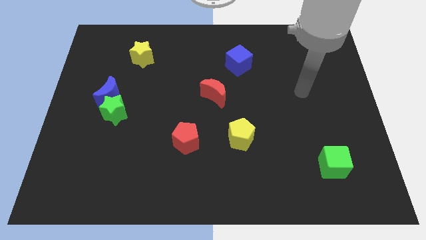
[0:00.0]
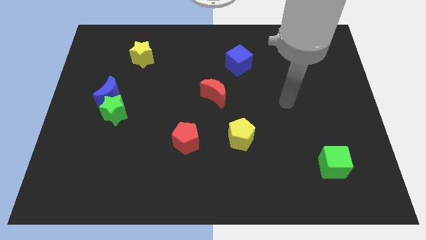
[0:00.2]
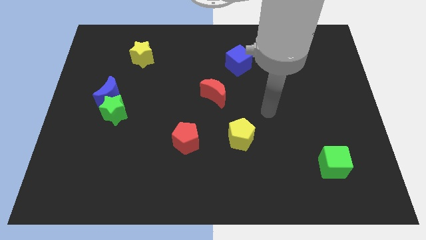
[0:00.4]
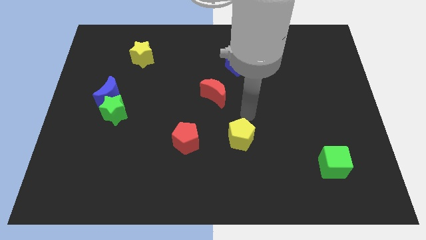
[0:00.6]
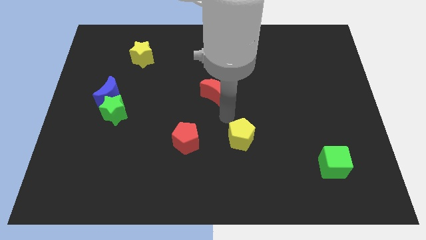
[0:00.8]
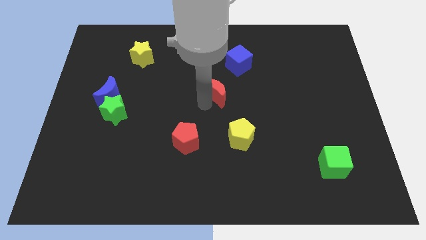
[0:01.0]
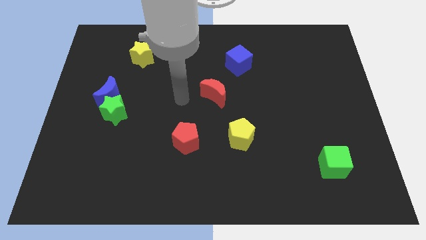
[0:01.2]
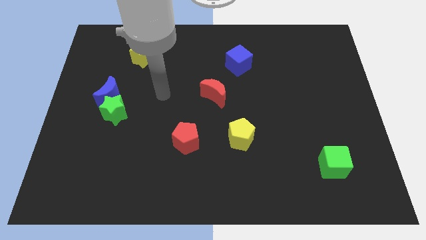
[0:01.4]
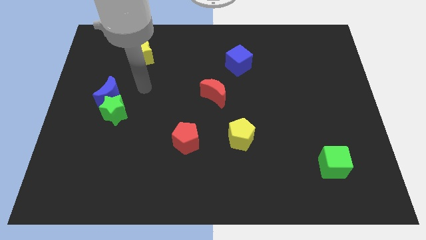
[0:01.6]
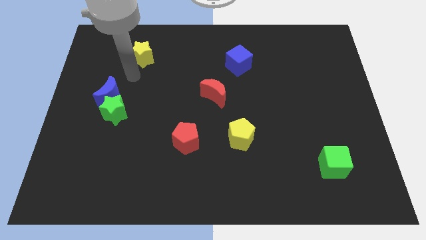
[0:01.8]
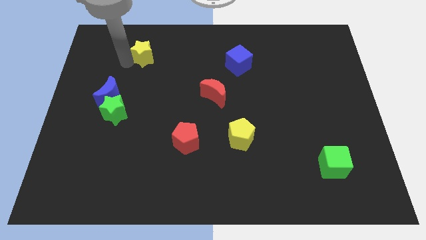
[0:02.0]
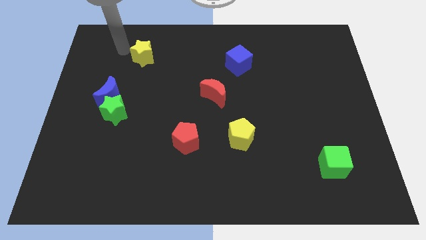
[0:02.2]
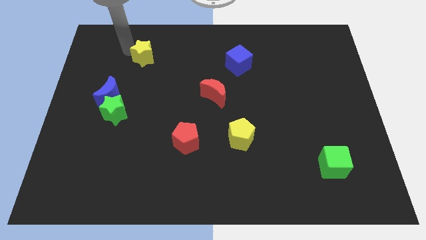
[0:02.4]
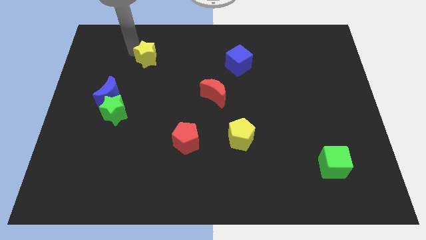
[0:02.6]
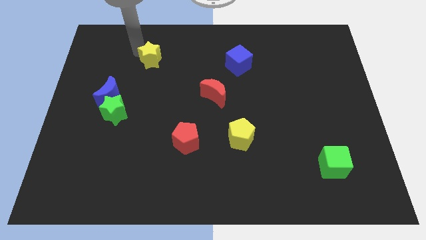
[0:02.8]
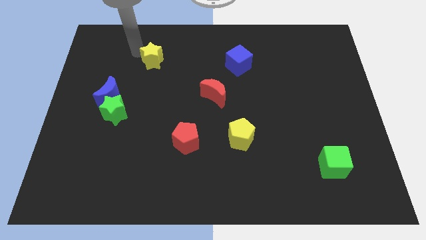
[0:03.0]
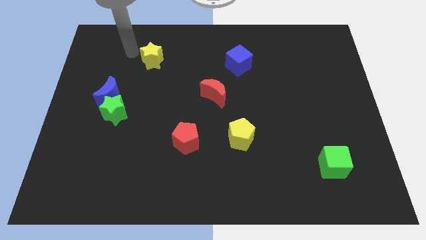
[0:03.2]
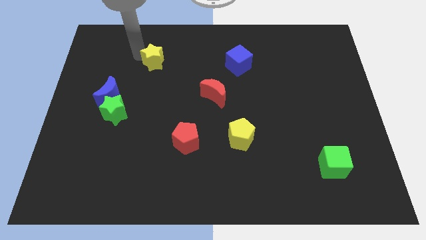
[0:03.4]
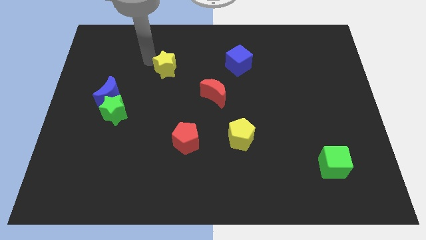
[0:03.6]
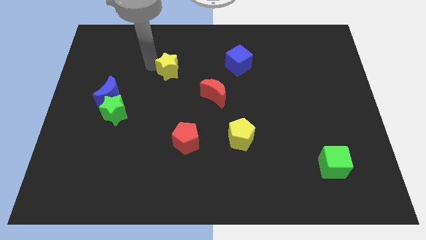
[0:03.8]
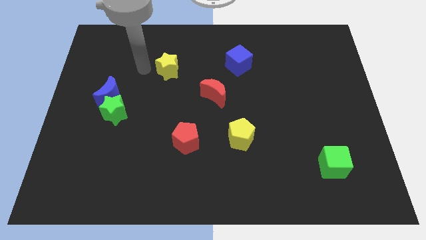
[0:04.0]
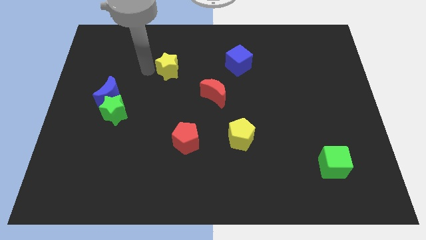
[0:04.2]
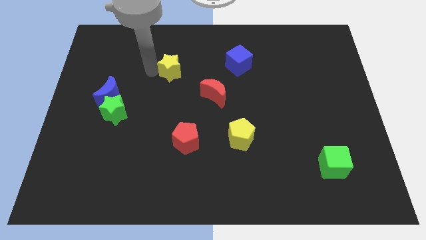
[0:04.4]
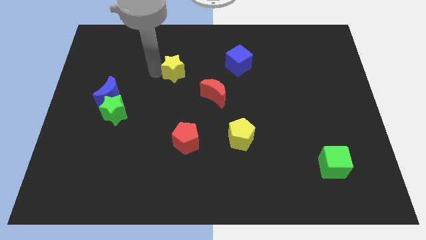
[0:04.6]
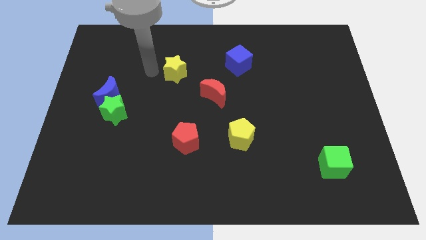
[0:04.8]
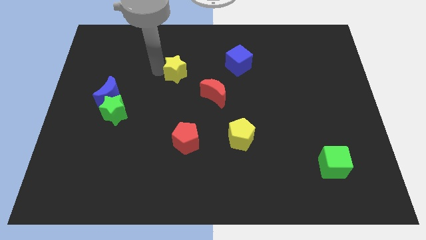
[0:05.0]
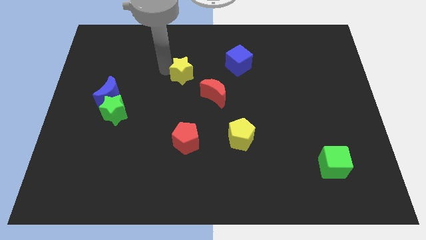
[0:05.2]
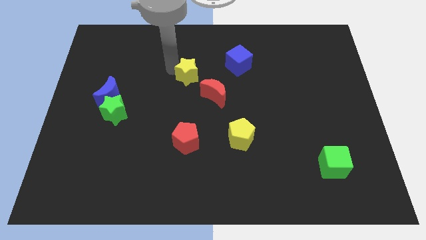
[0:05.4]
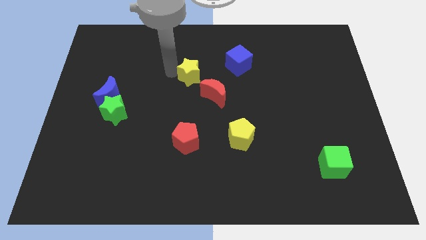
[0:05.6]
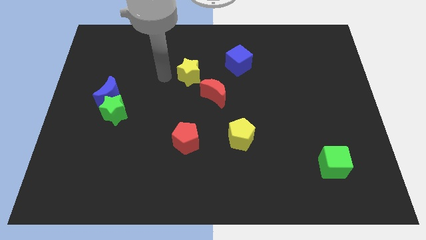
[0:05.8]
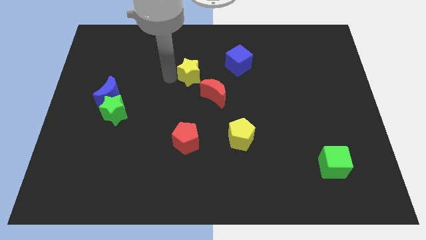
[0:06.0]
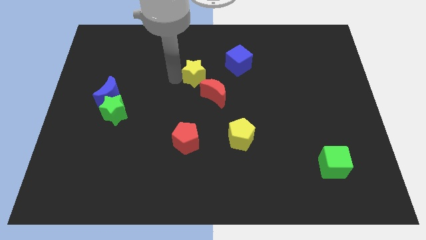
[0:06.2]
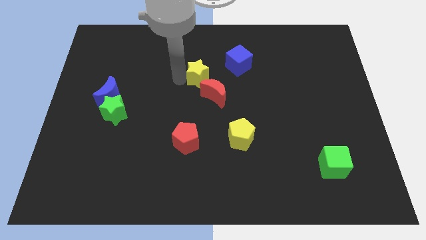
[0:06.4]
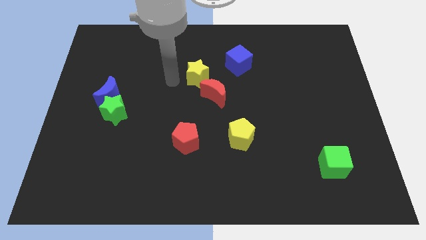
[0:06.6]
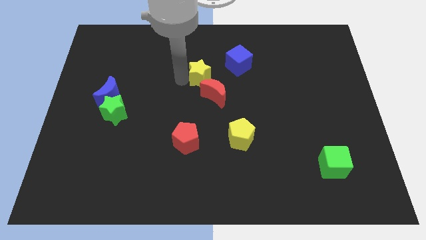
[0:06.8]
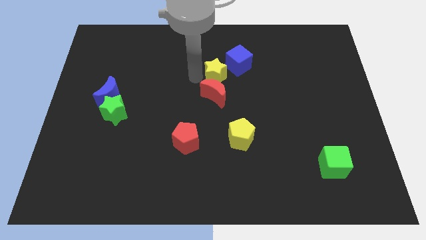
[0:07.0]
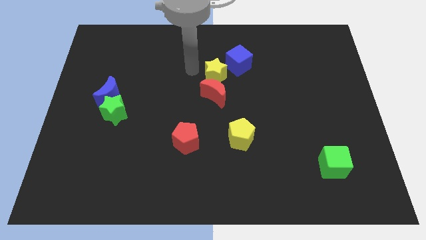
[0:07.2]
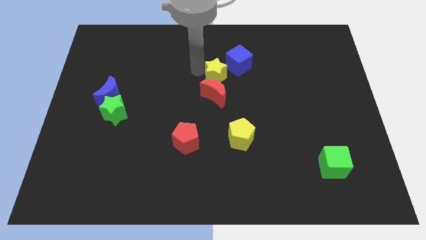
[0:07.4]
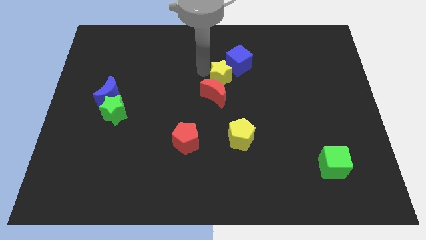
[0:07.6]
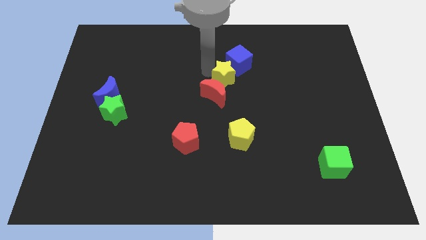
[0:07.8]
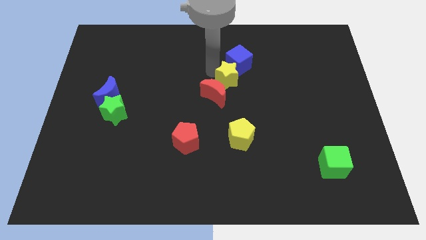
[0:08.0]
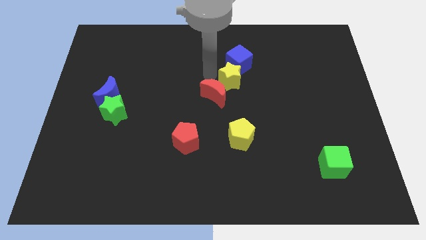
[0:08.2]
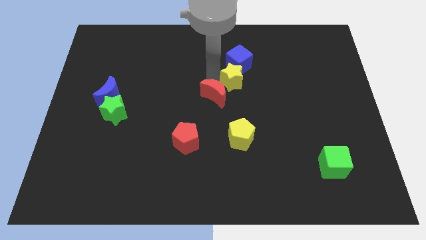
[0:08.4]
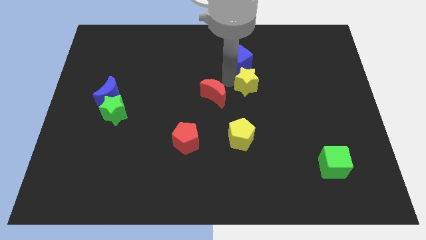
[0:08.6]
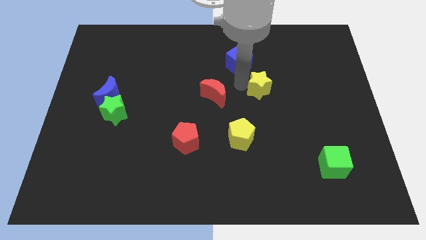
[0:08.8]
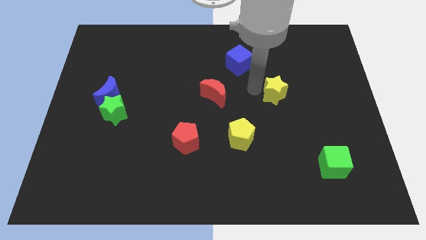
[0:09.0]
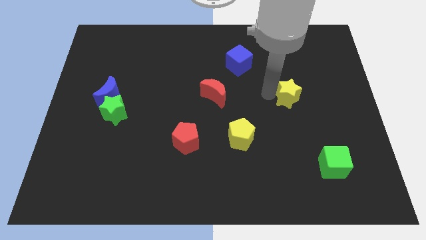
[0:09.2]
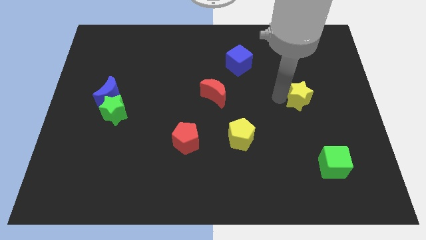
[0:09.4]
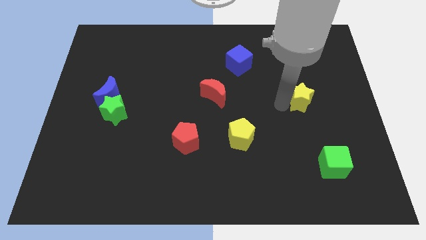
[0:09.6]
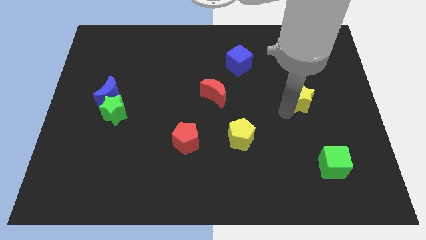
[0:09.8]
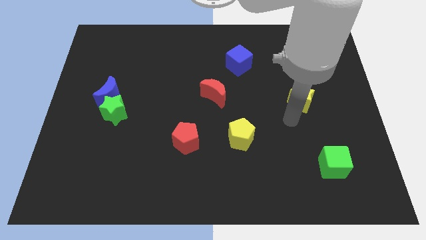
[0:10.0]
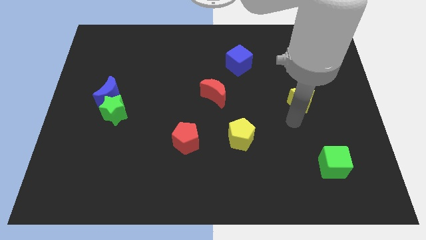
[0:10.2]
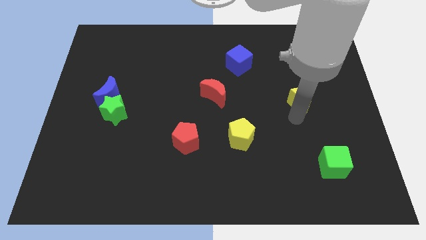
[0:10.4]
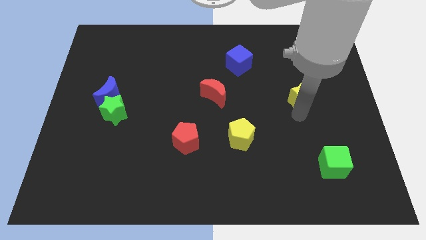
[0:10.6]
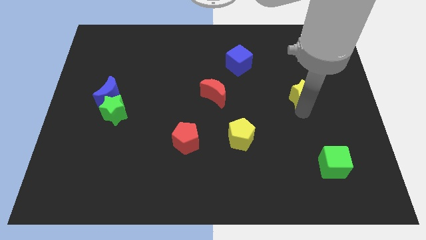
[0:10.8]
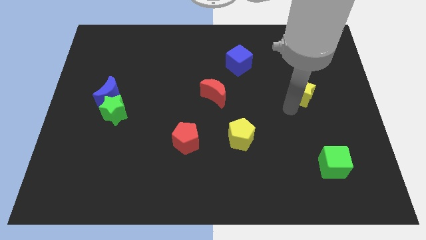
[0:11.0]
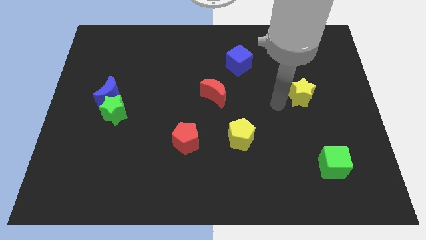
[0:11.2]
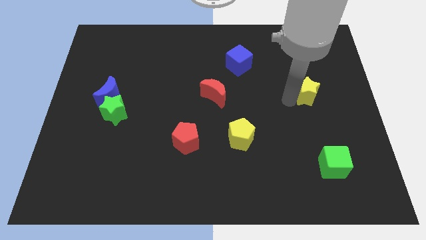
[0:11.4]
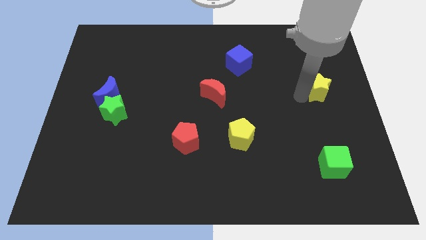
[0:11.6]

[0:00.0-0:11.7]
put the yellow star to the right side of the board

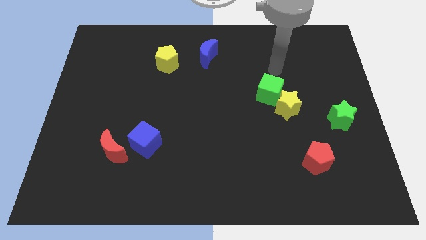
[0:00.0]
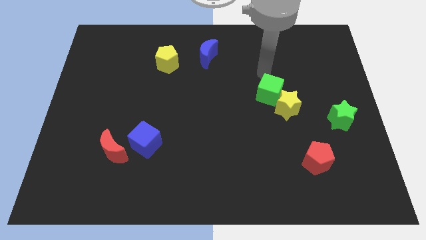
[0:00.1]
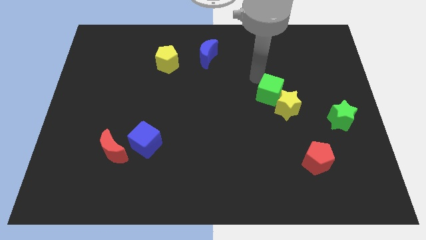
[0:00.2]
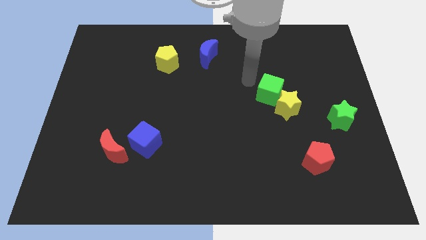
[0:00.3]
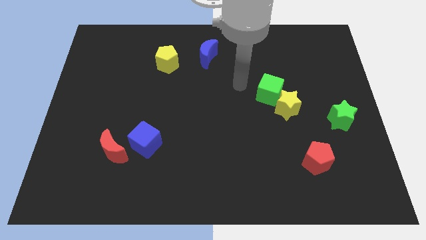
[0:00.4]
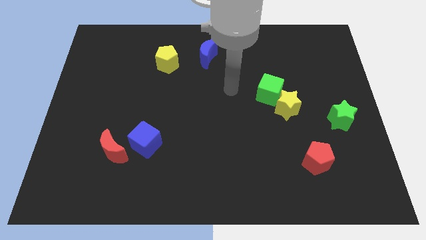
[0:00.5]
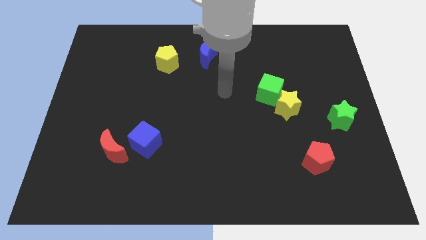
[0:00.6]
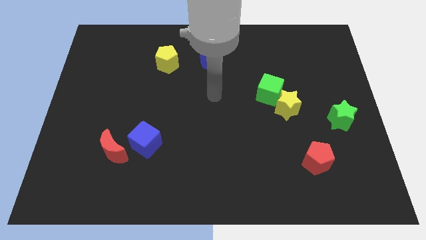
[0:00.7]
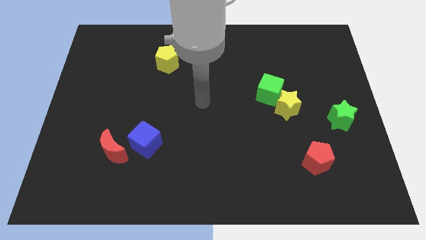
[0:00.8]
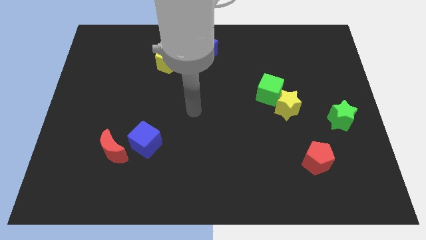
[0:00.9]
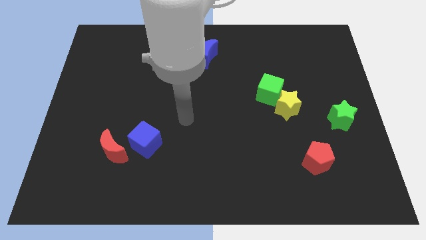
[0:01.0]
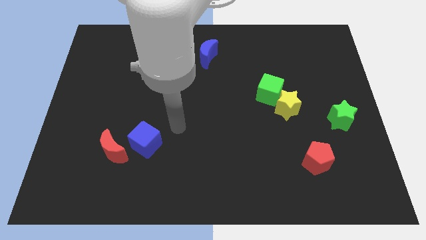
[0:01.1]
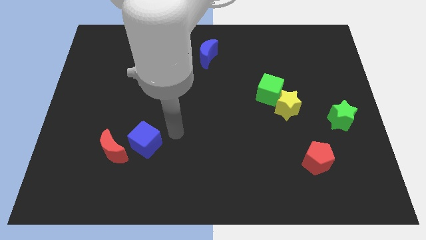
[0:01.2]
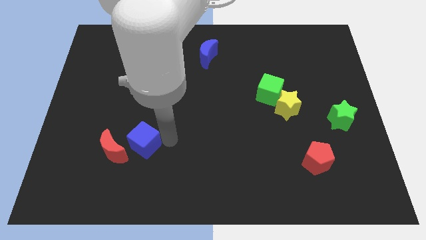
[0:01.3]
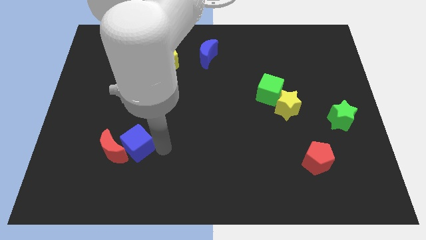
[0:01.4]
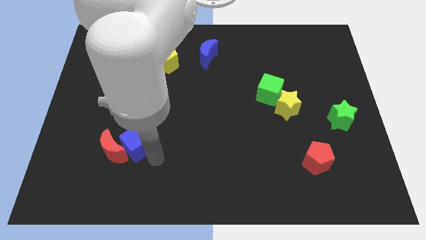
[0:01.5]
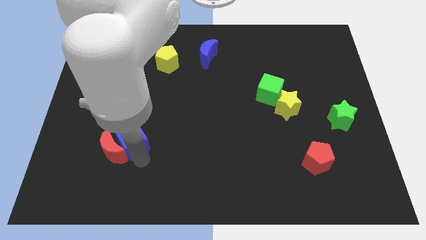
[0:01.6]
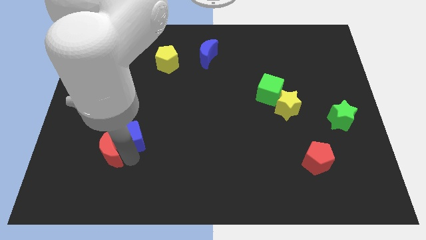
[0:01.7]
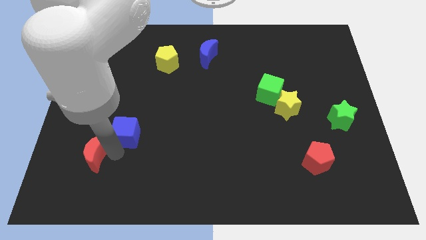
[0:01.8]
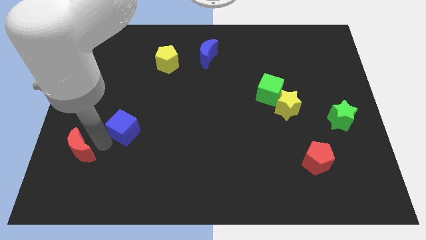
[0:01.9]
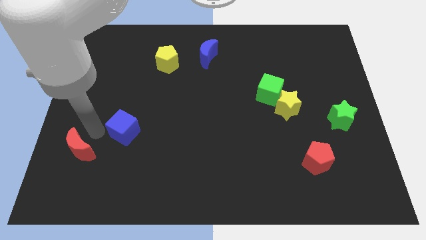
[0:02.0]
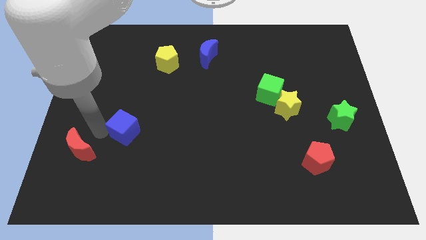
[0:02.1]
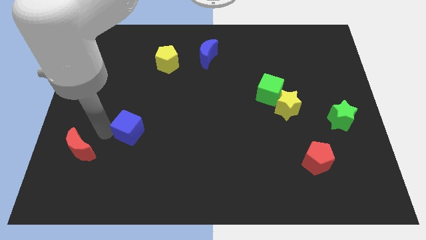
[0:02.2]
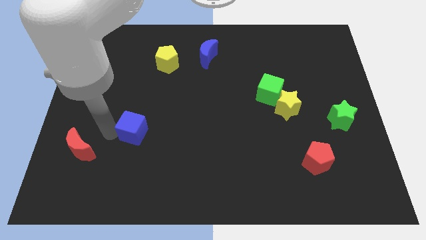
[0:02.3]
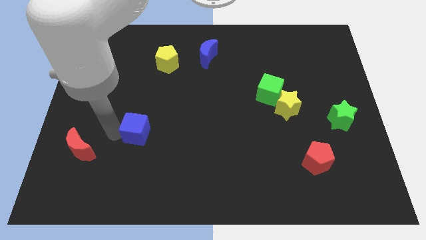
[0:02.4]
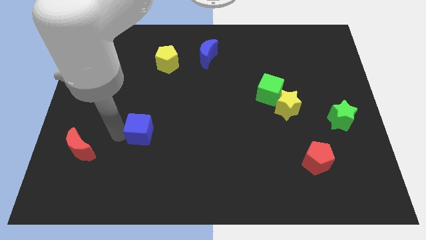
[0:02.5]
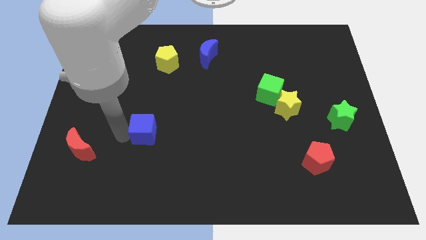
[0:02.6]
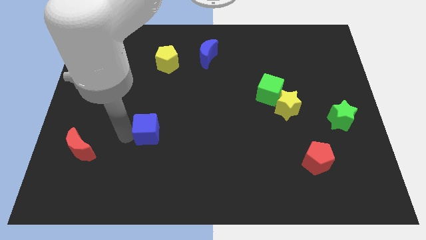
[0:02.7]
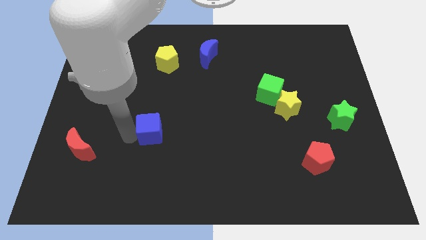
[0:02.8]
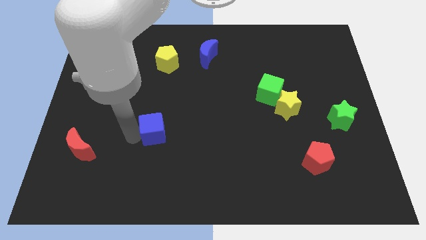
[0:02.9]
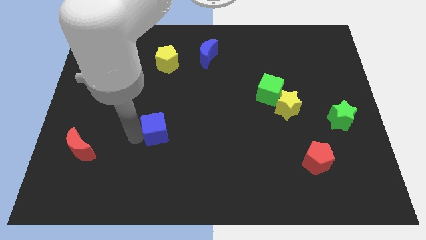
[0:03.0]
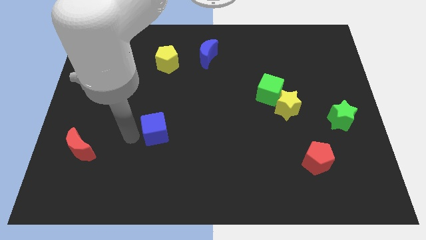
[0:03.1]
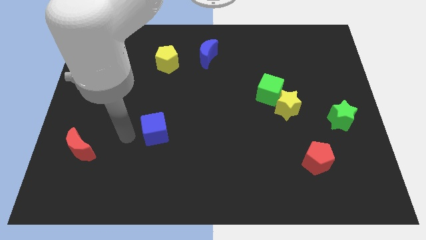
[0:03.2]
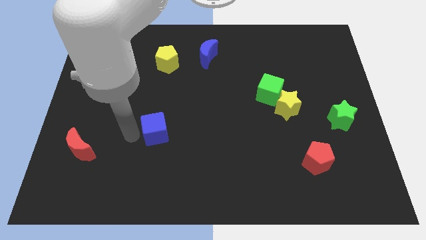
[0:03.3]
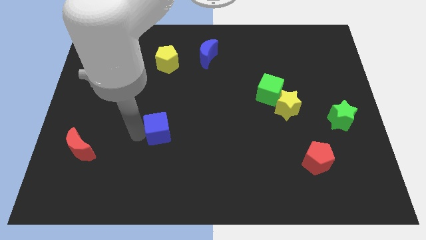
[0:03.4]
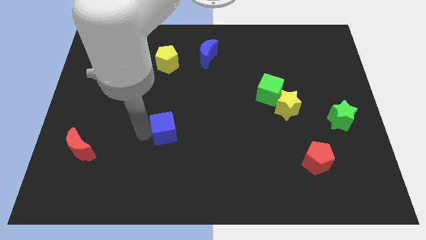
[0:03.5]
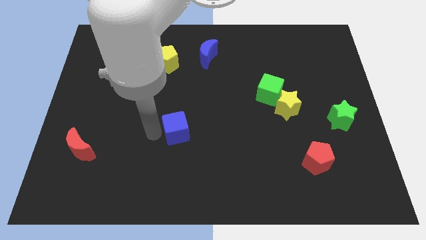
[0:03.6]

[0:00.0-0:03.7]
move the blue cube to the middle of the board
